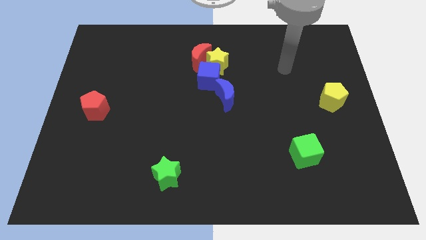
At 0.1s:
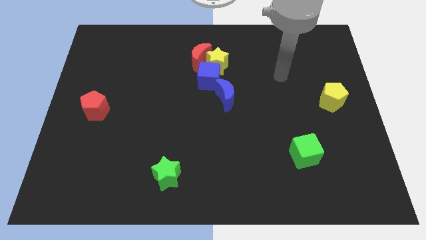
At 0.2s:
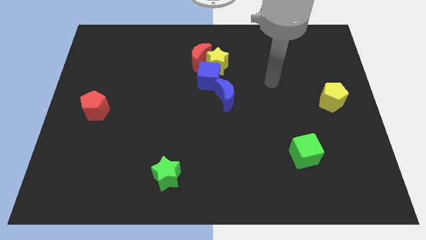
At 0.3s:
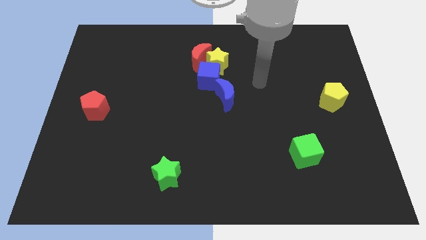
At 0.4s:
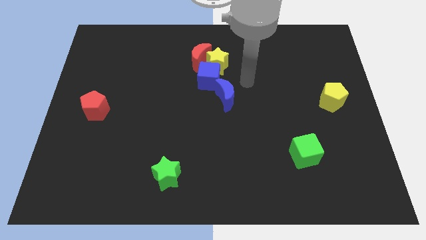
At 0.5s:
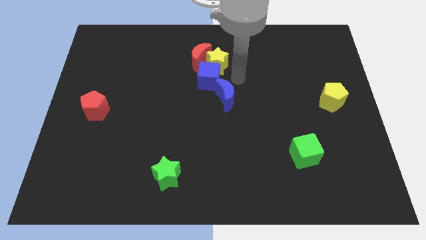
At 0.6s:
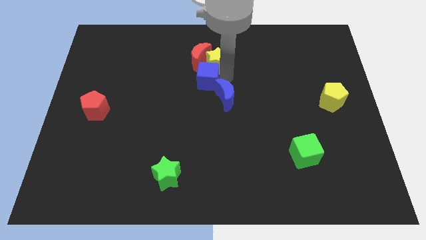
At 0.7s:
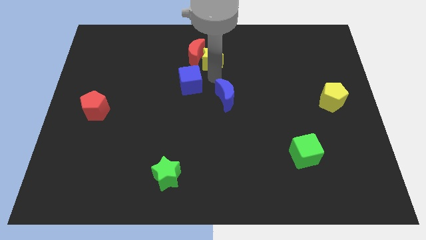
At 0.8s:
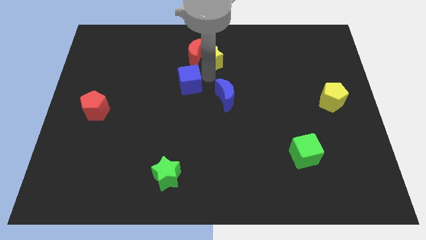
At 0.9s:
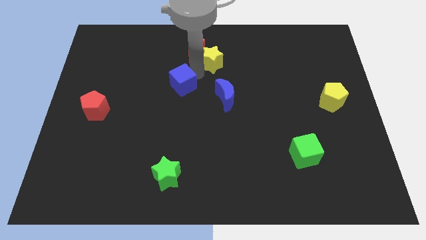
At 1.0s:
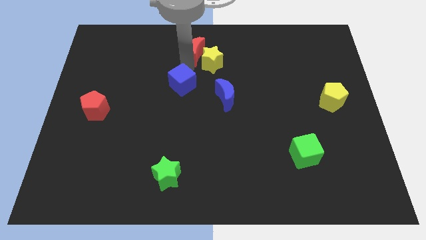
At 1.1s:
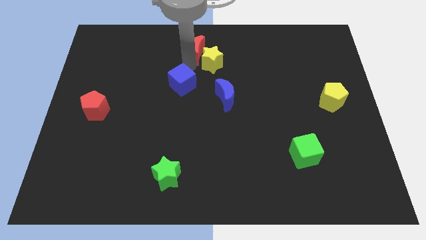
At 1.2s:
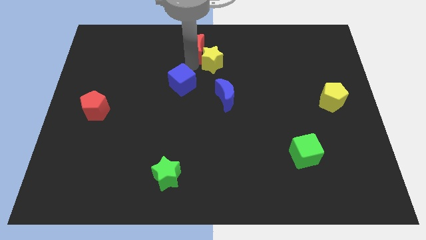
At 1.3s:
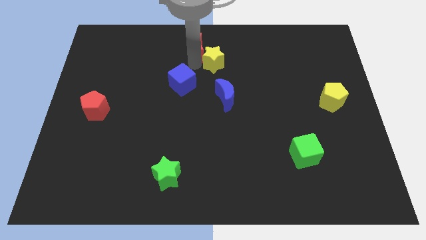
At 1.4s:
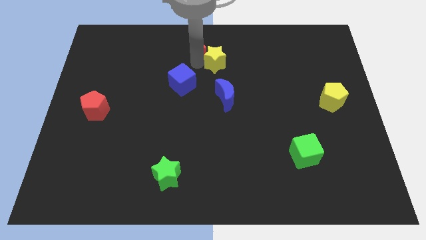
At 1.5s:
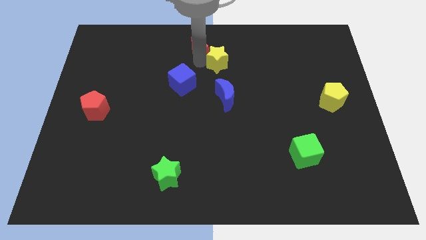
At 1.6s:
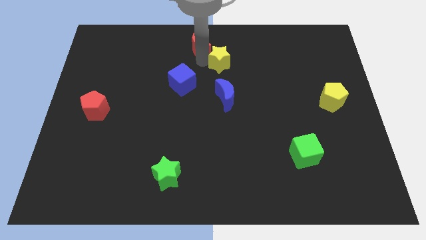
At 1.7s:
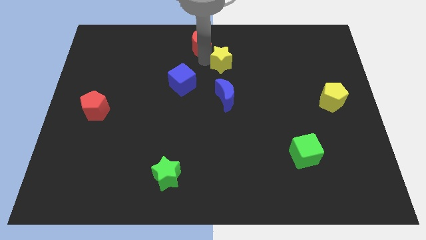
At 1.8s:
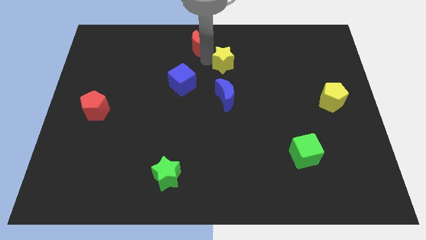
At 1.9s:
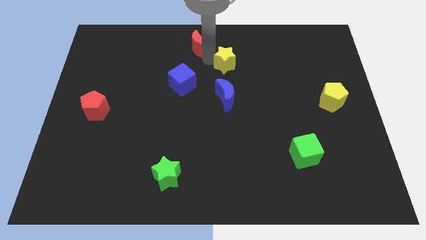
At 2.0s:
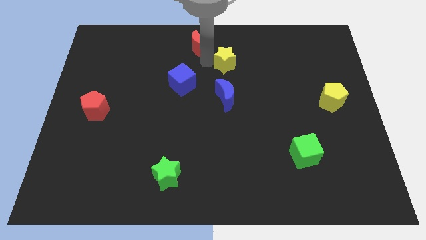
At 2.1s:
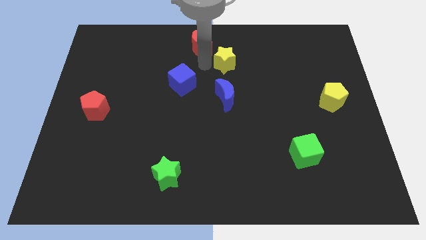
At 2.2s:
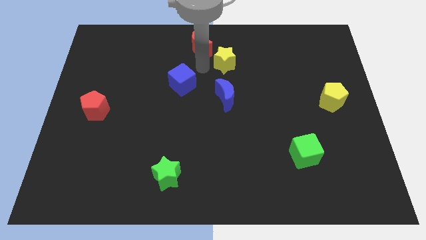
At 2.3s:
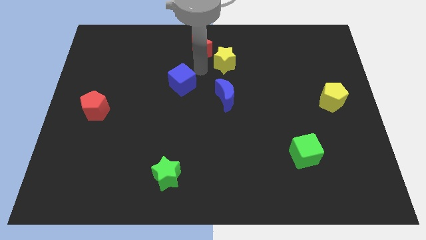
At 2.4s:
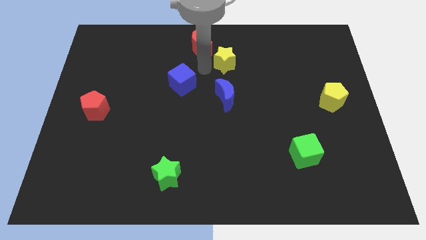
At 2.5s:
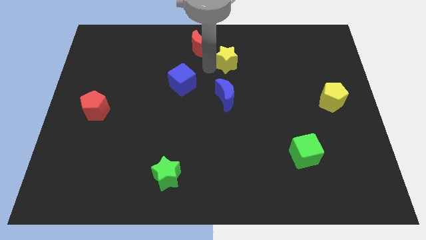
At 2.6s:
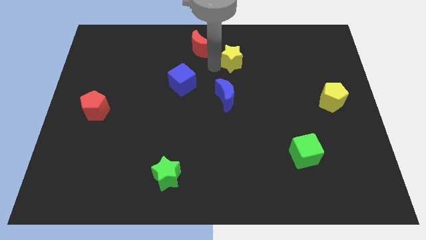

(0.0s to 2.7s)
pull the yellow star apart from the red moon and blue cube

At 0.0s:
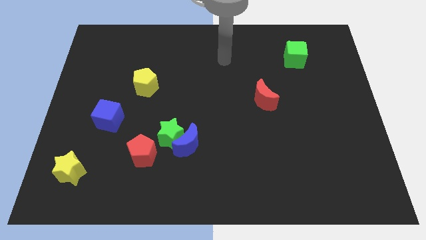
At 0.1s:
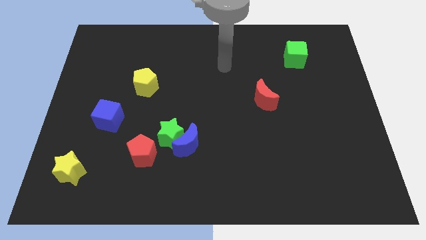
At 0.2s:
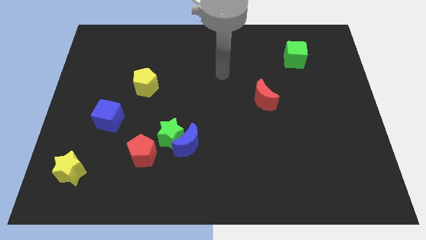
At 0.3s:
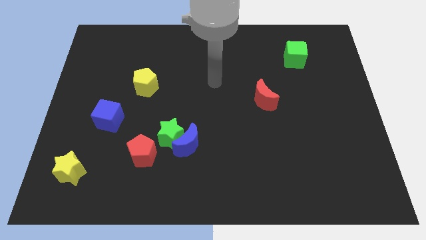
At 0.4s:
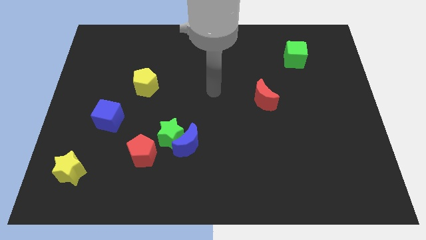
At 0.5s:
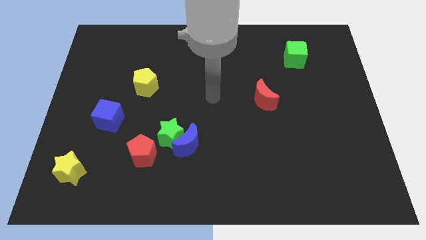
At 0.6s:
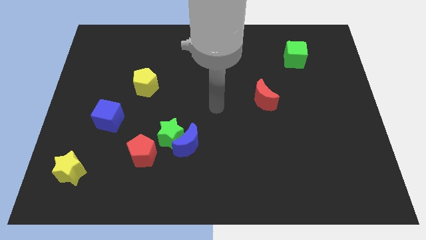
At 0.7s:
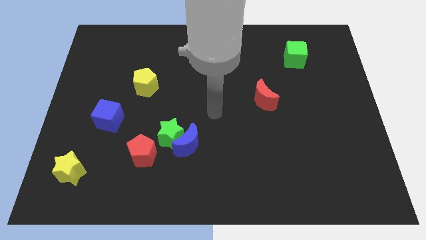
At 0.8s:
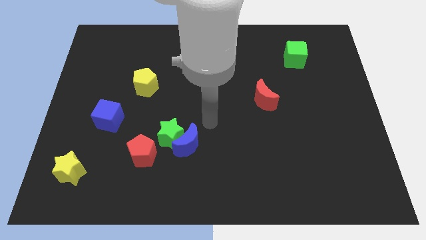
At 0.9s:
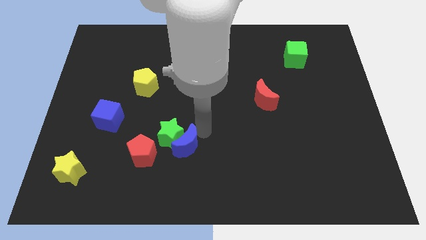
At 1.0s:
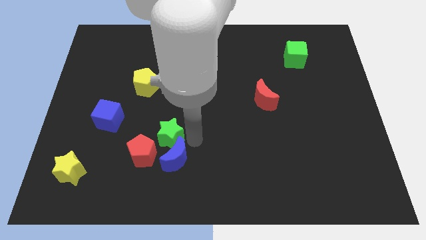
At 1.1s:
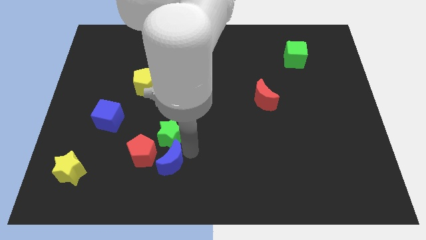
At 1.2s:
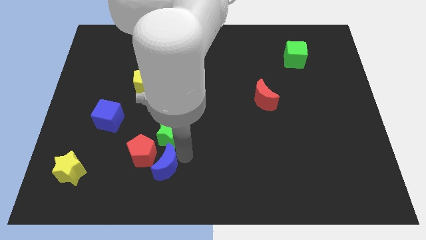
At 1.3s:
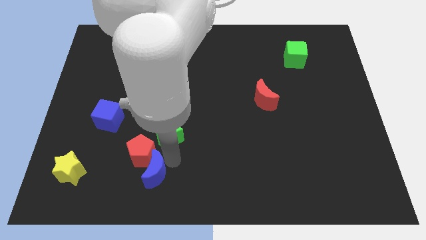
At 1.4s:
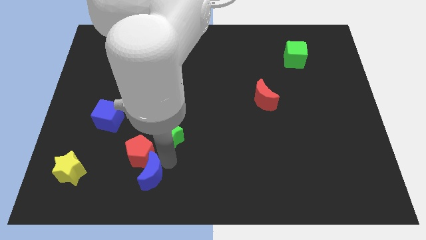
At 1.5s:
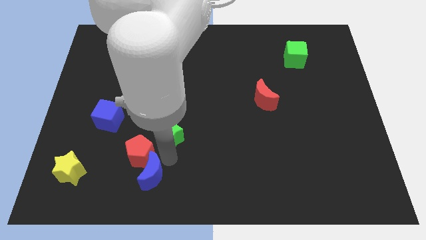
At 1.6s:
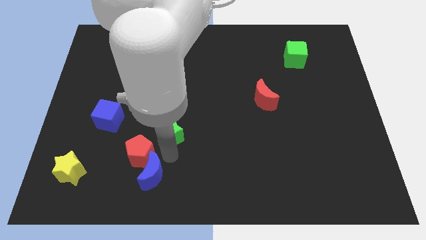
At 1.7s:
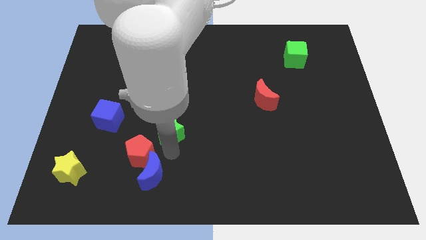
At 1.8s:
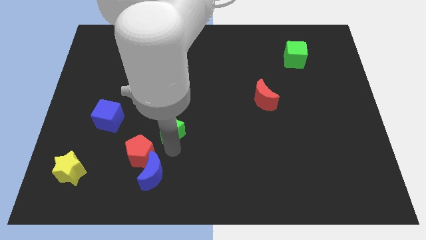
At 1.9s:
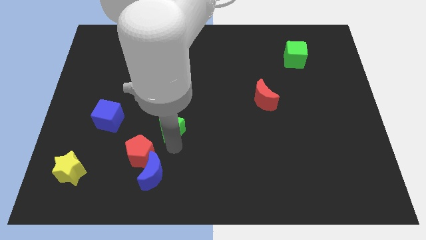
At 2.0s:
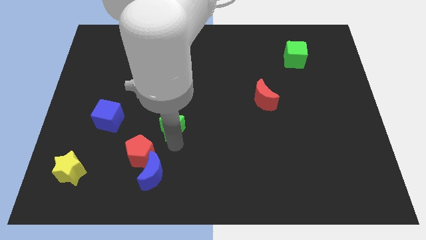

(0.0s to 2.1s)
pull the green star apart from the blue moon and red pentagon

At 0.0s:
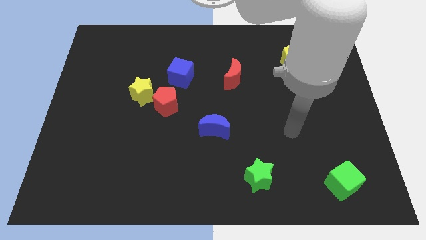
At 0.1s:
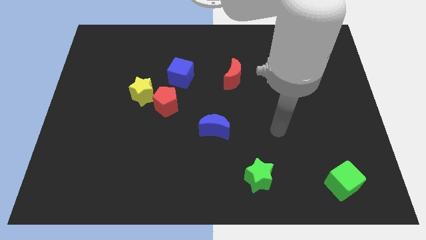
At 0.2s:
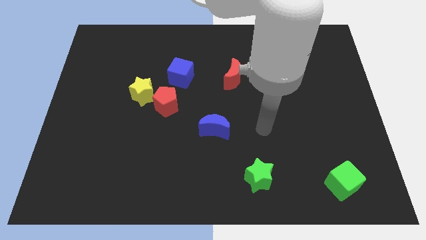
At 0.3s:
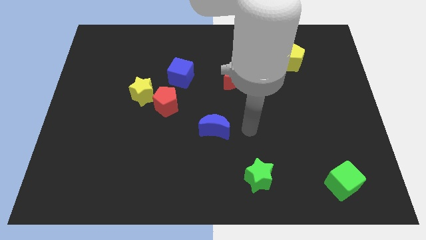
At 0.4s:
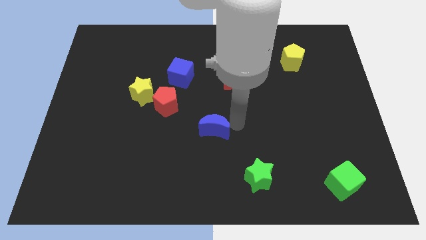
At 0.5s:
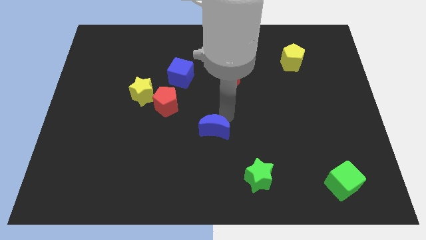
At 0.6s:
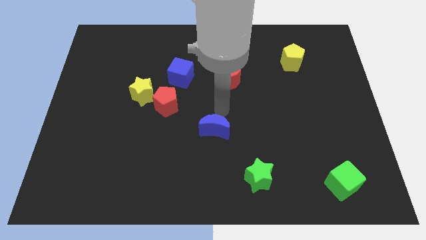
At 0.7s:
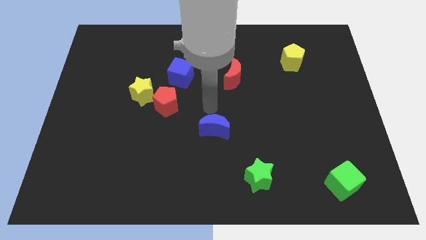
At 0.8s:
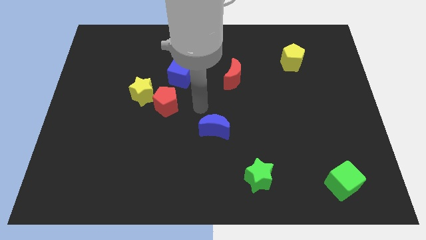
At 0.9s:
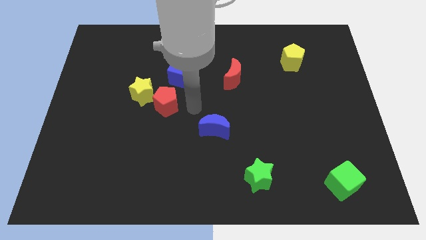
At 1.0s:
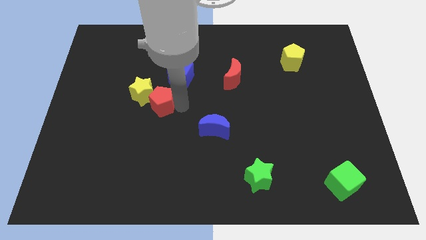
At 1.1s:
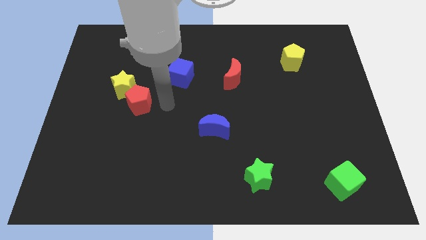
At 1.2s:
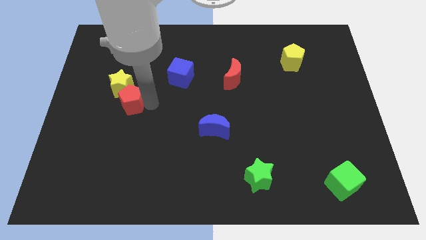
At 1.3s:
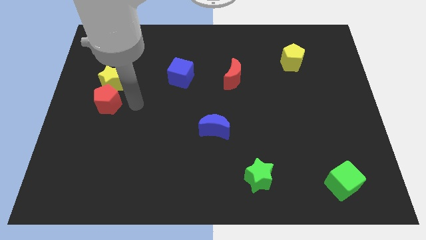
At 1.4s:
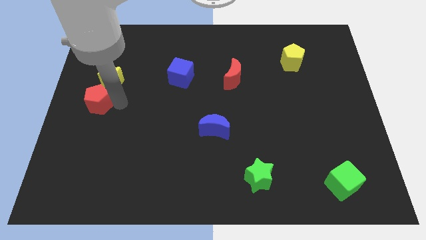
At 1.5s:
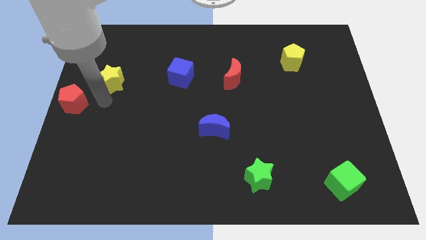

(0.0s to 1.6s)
separate the yellow star from the red pentagon

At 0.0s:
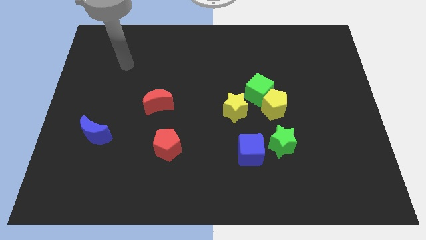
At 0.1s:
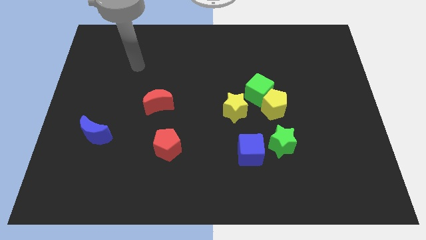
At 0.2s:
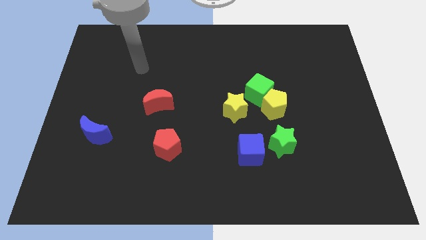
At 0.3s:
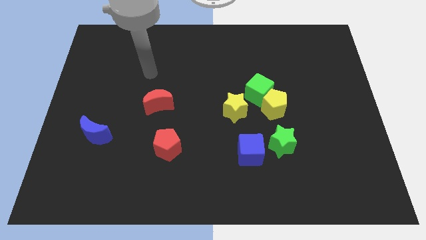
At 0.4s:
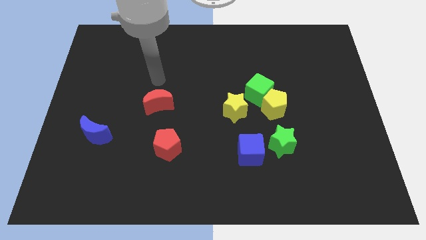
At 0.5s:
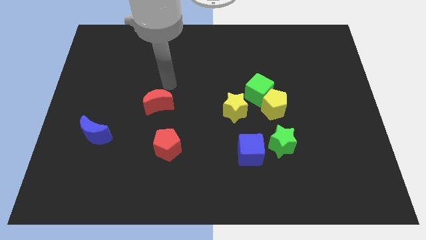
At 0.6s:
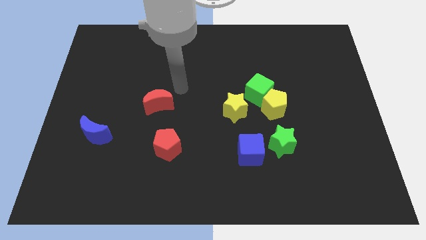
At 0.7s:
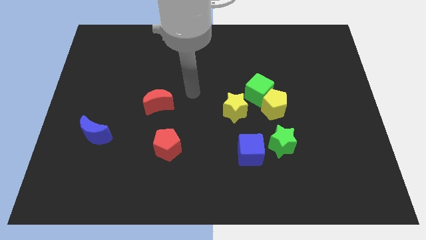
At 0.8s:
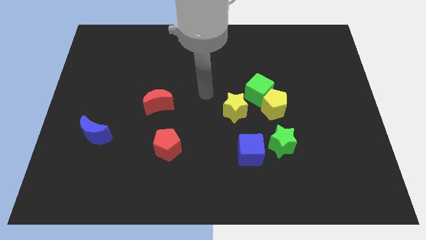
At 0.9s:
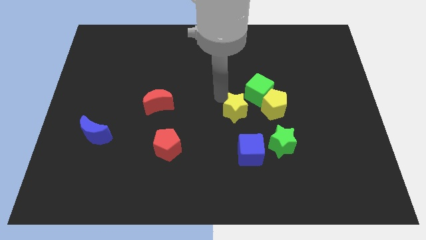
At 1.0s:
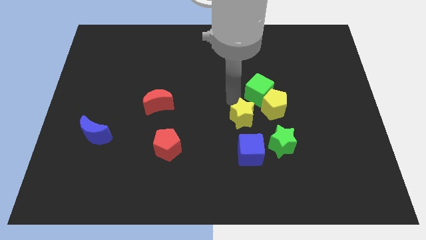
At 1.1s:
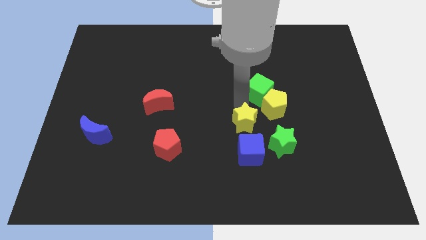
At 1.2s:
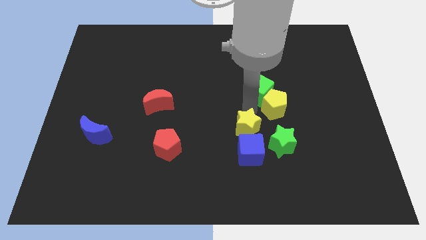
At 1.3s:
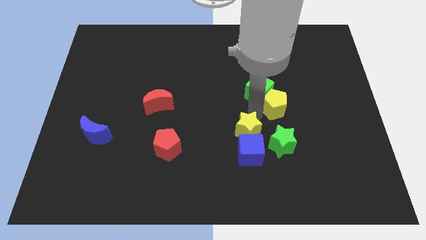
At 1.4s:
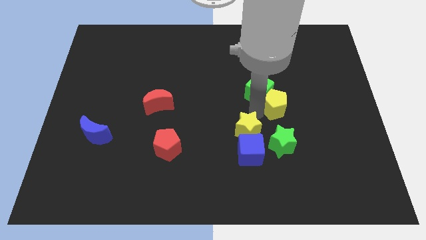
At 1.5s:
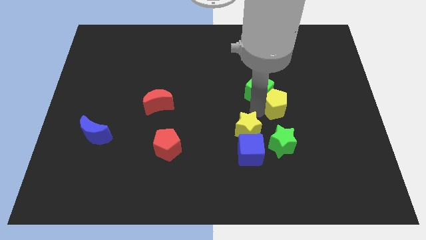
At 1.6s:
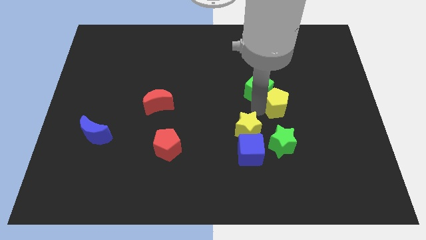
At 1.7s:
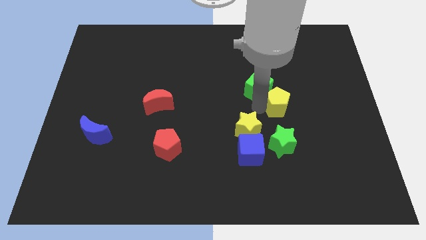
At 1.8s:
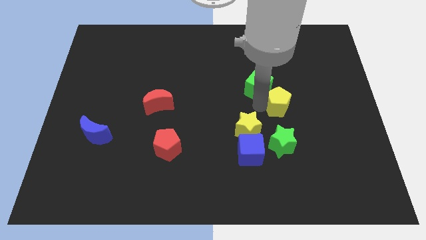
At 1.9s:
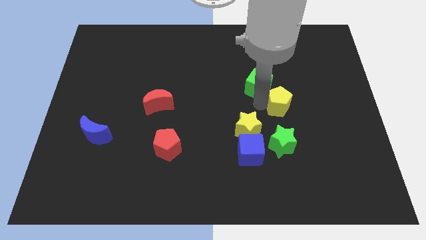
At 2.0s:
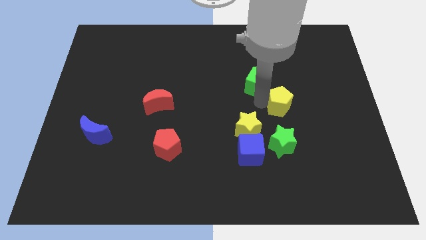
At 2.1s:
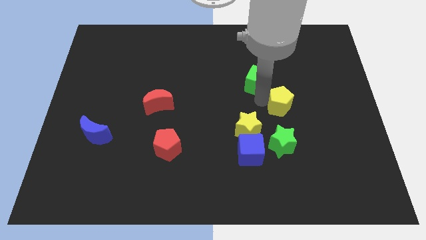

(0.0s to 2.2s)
move the green cube away from the yellow pentagon and yellow star

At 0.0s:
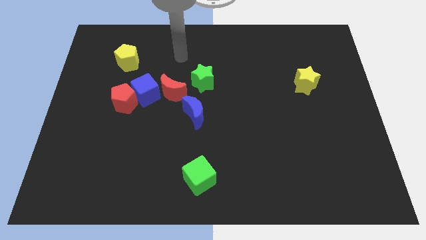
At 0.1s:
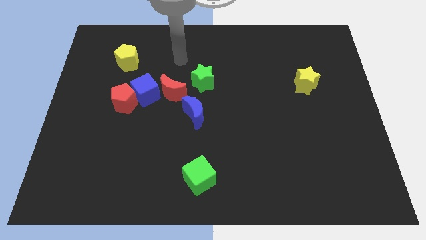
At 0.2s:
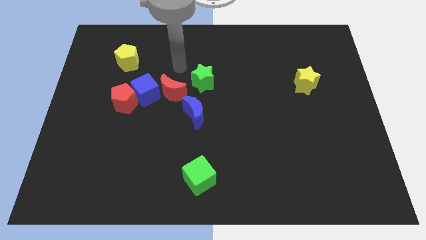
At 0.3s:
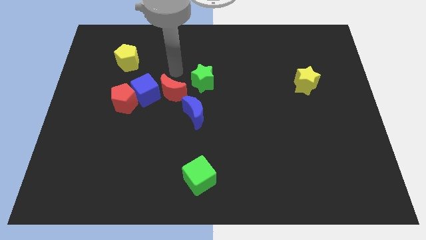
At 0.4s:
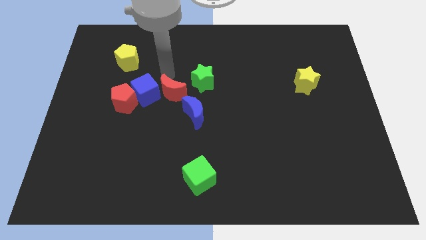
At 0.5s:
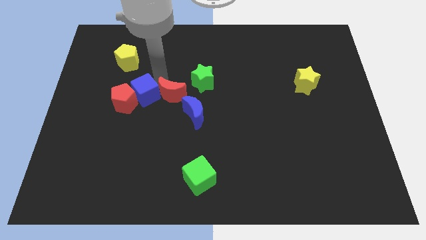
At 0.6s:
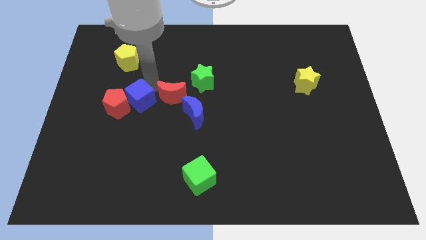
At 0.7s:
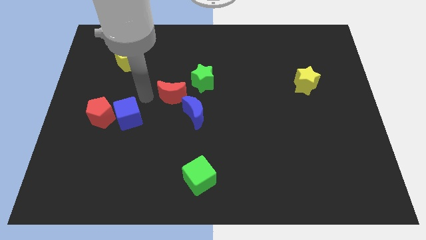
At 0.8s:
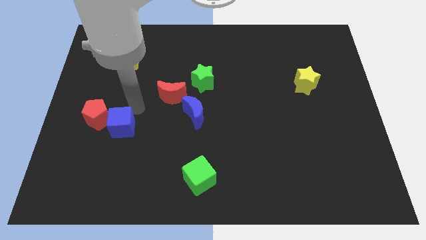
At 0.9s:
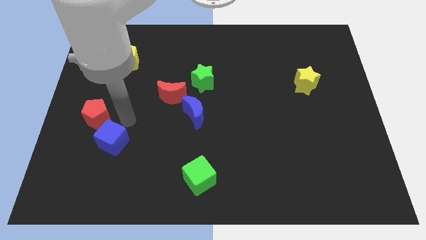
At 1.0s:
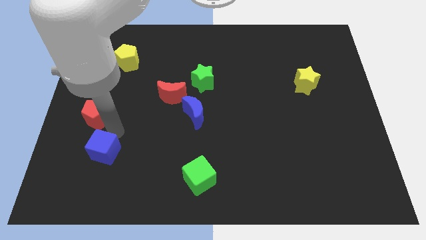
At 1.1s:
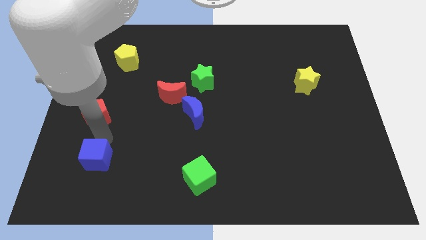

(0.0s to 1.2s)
move the red pentagon away from the blue cube
